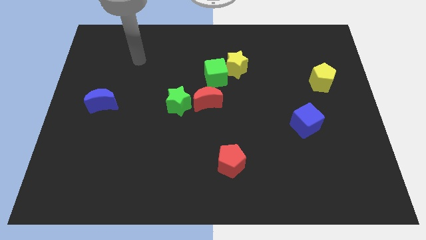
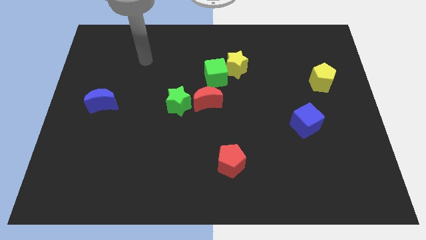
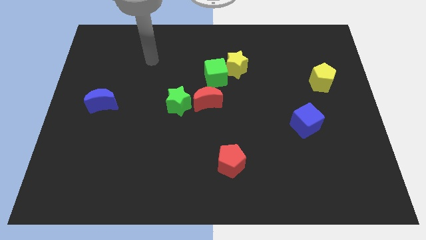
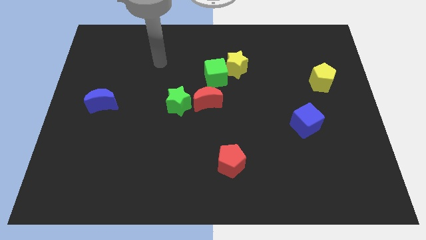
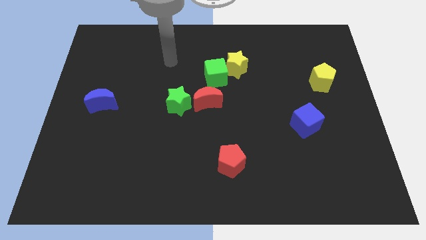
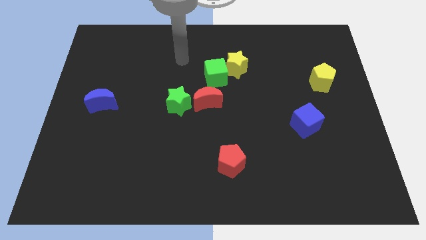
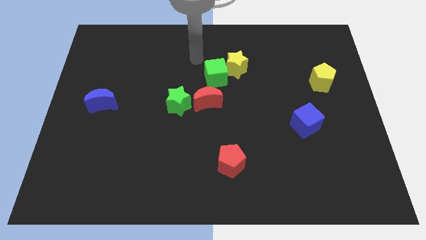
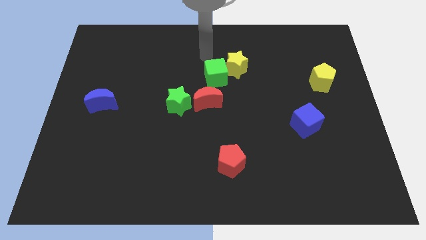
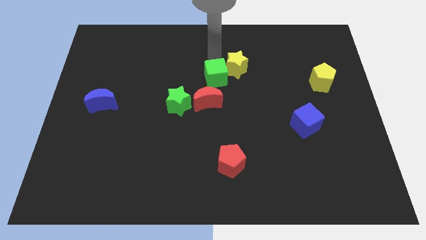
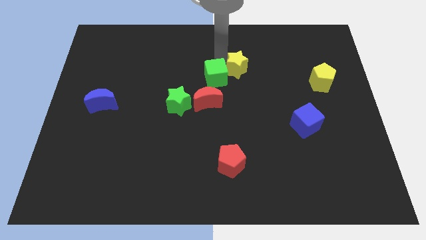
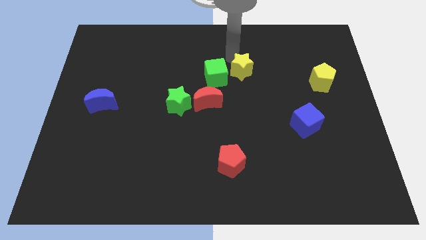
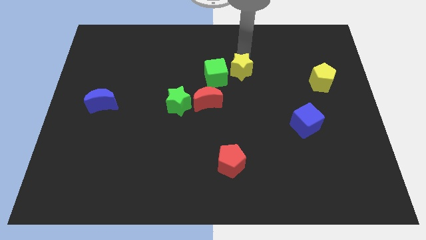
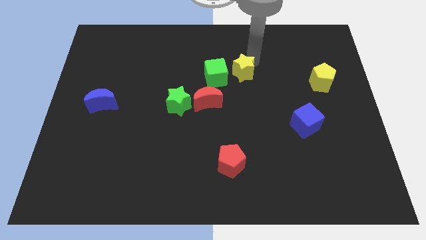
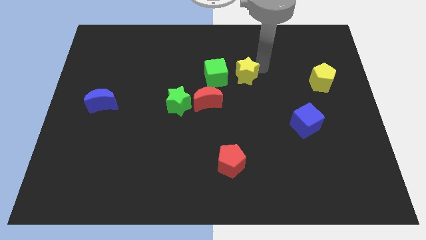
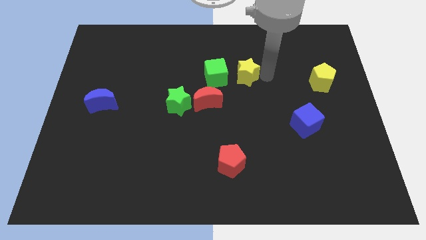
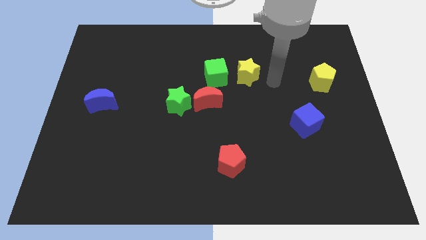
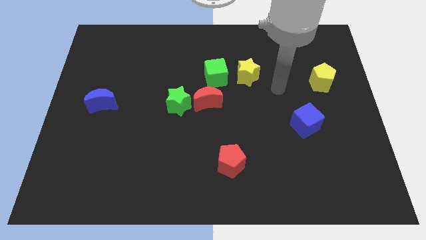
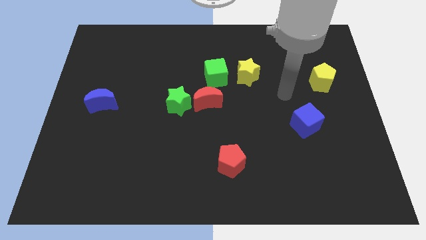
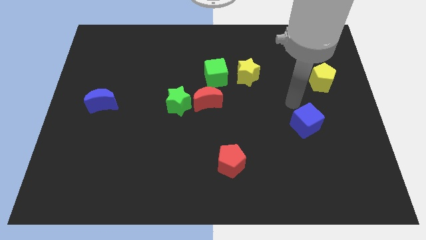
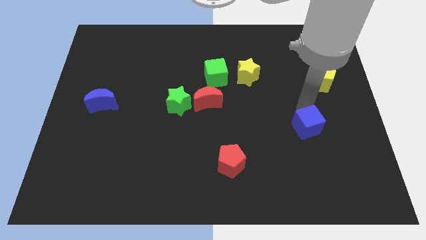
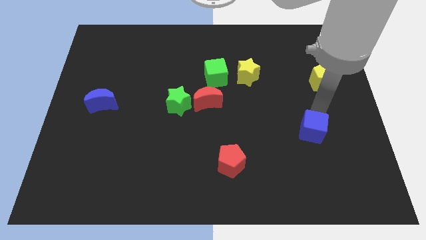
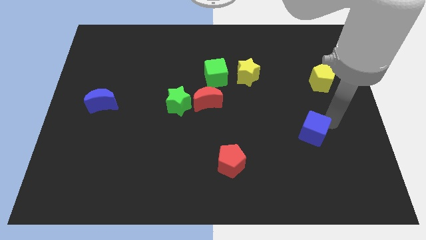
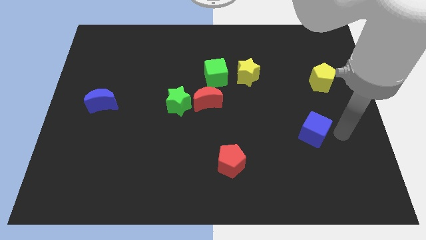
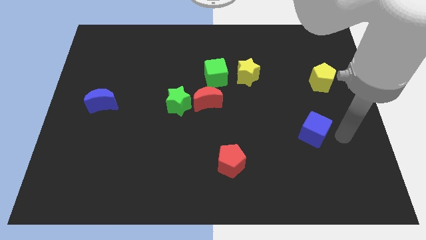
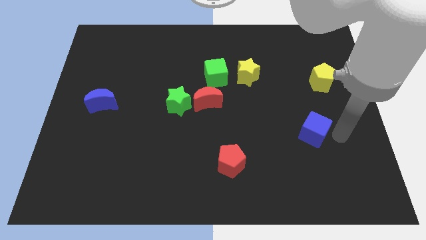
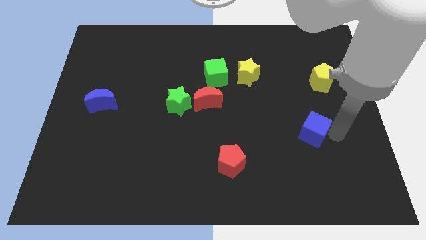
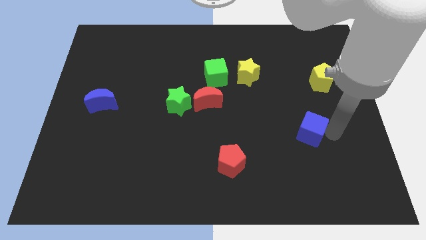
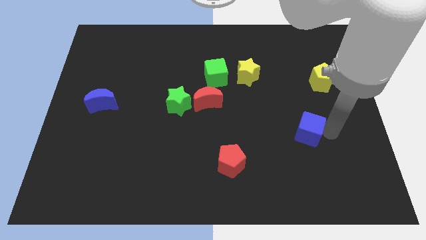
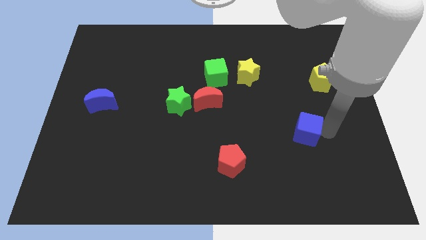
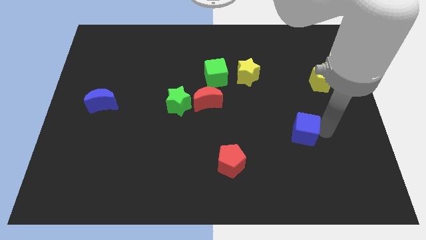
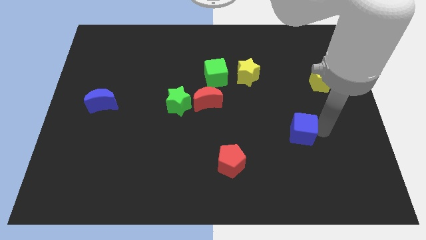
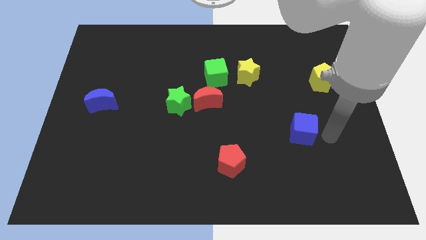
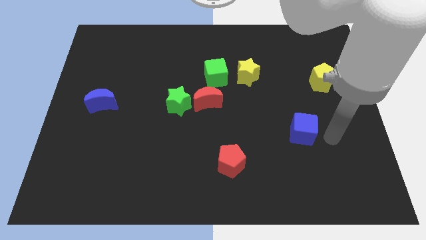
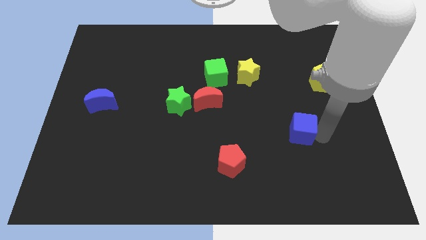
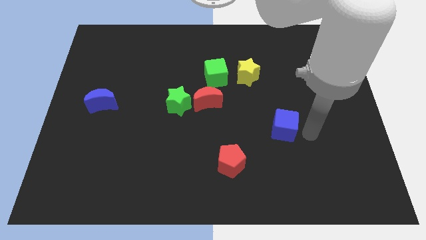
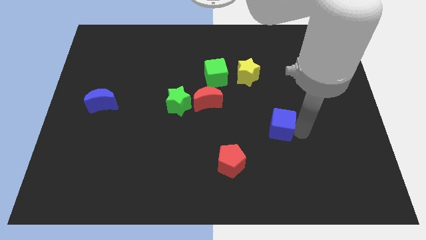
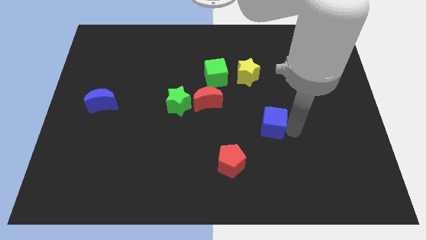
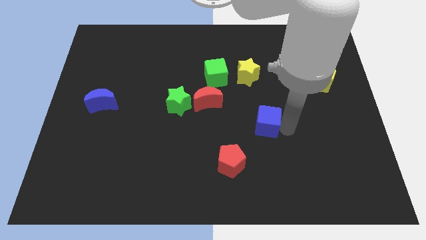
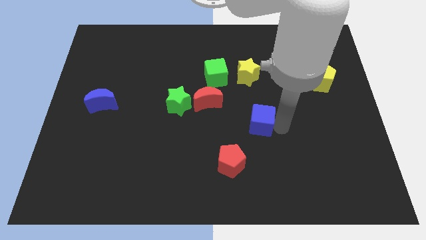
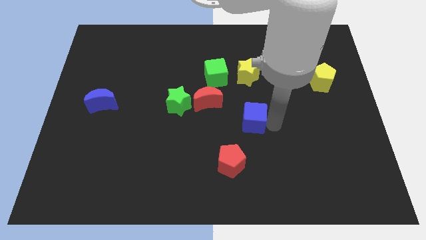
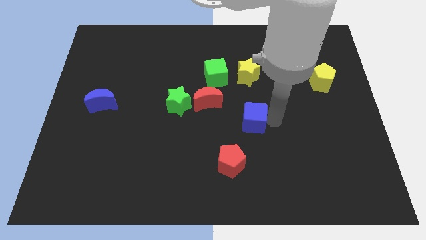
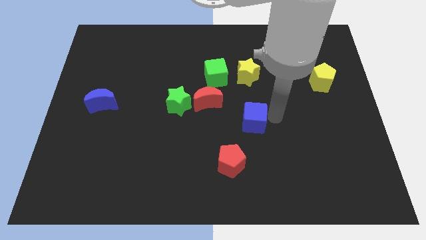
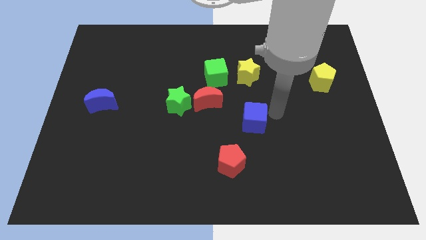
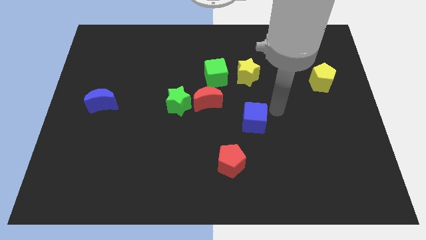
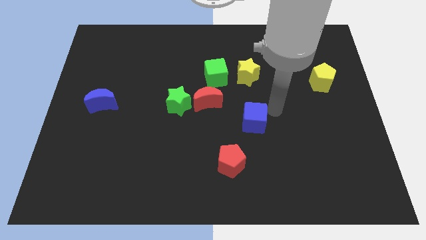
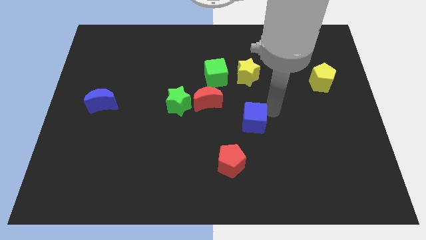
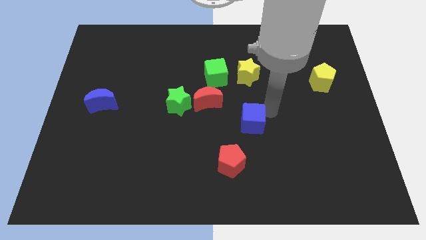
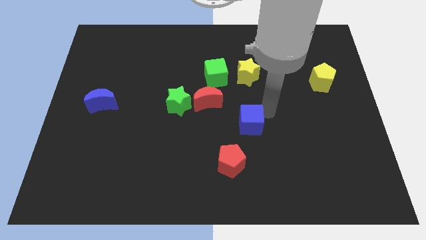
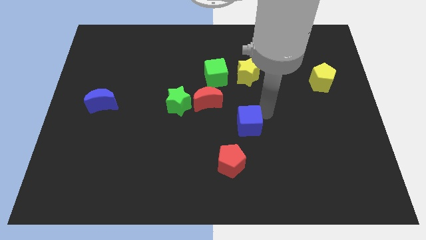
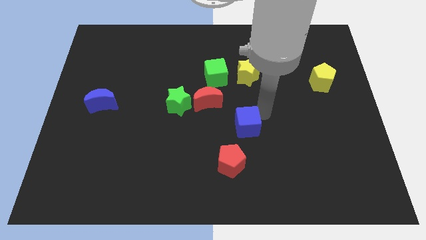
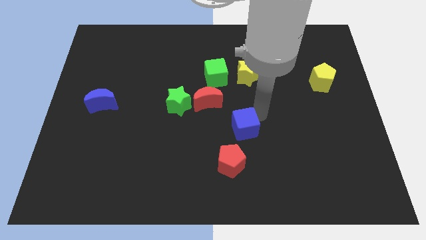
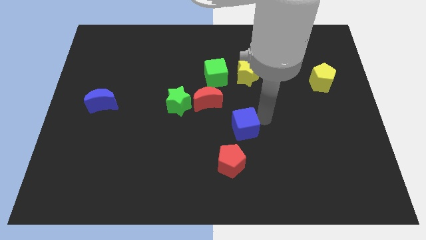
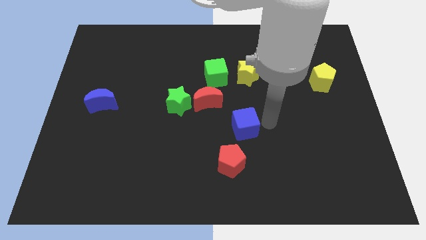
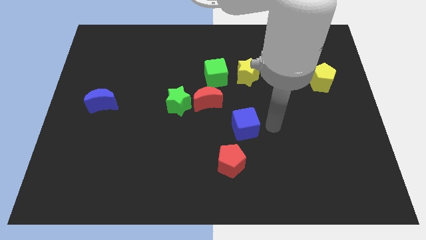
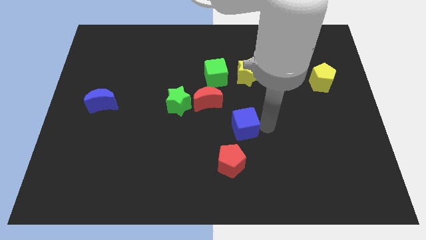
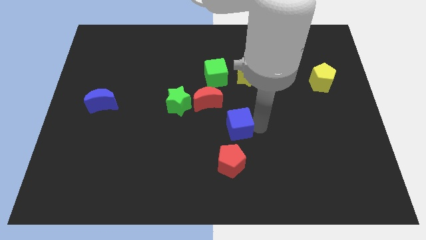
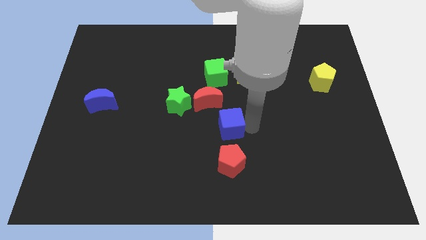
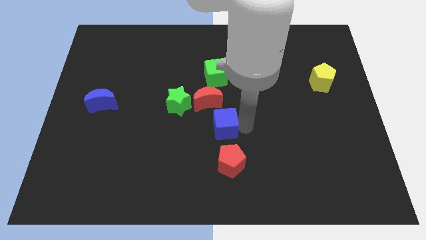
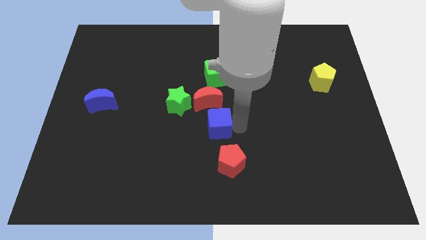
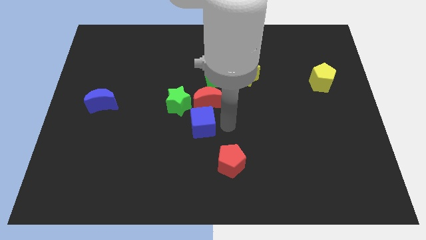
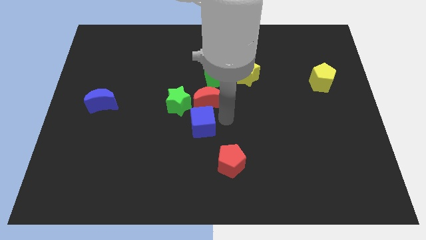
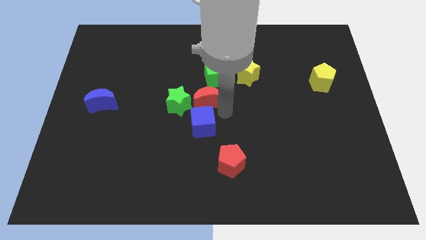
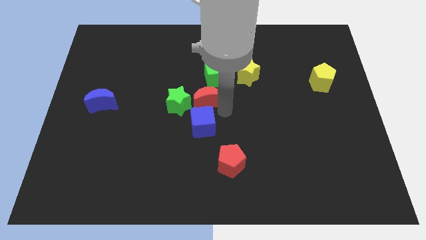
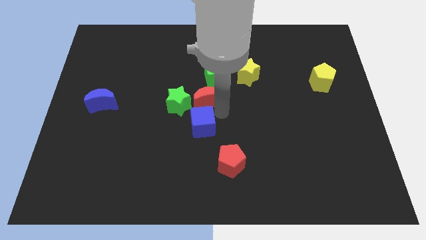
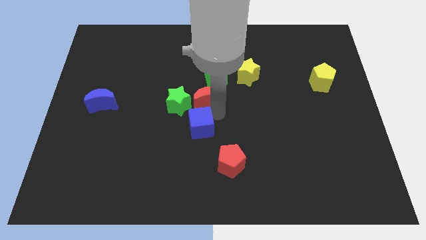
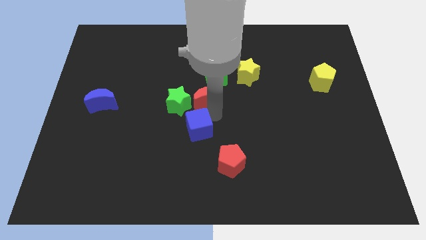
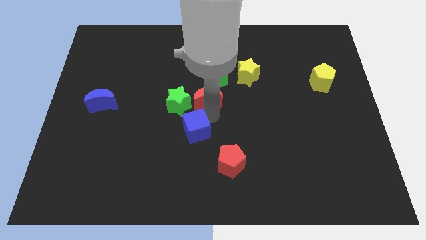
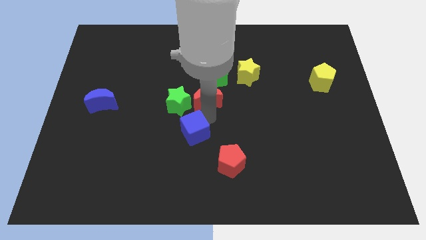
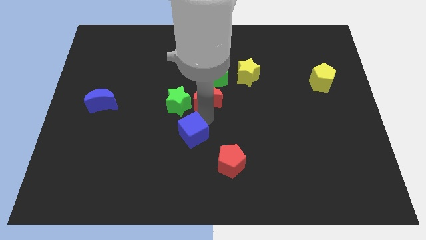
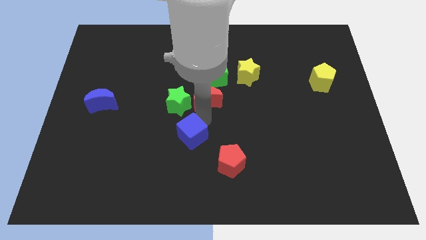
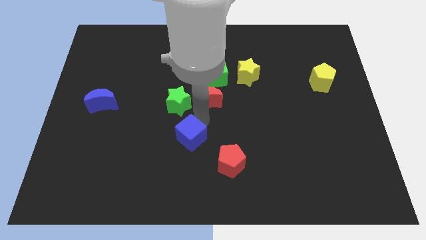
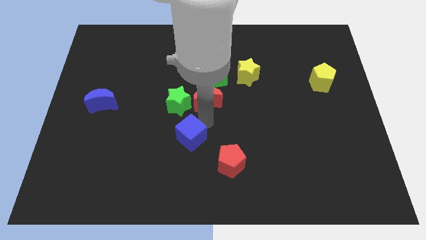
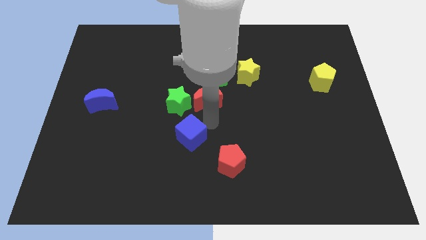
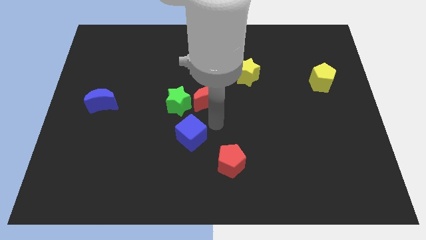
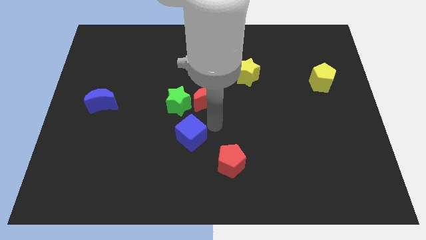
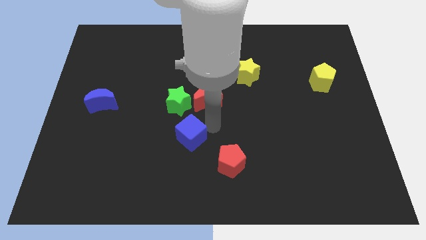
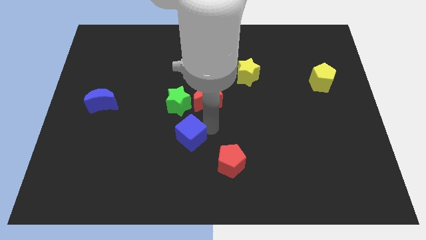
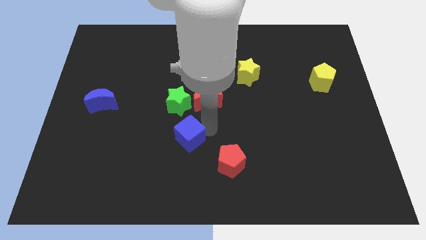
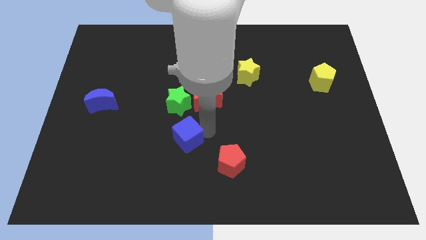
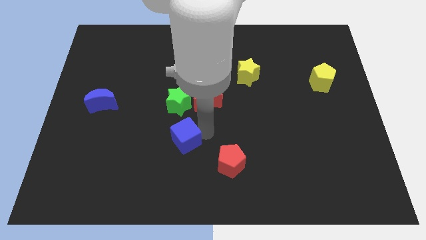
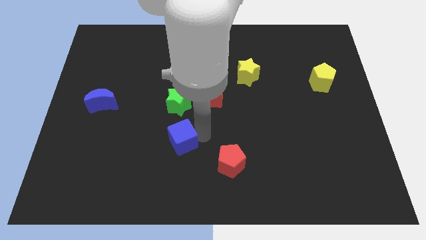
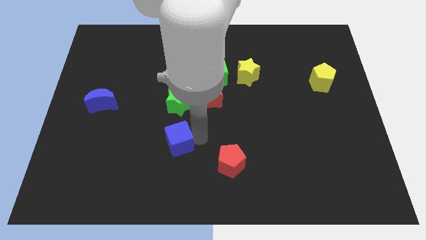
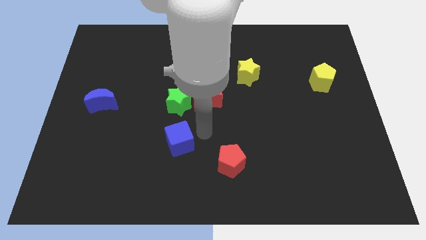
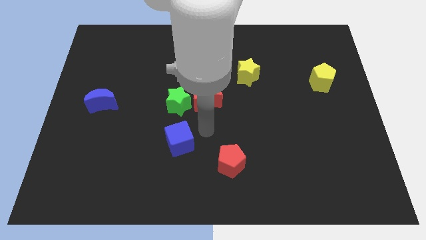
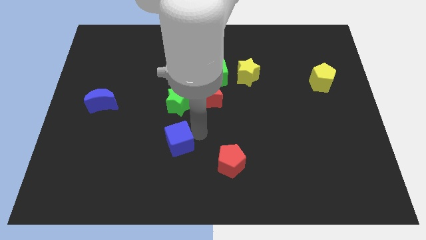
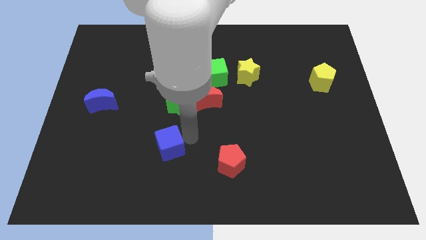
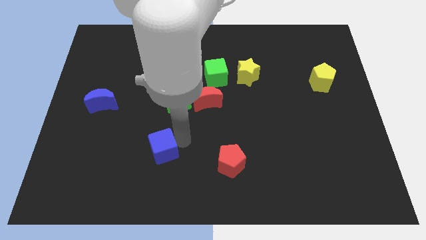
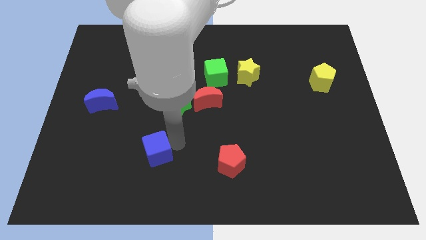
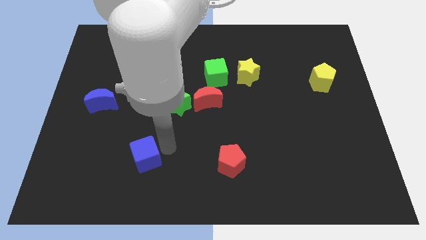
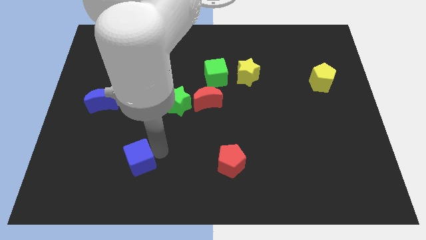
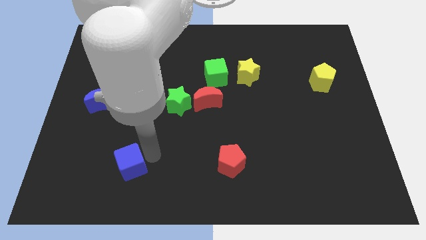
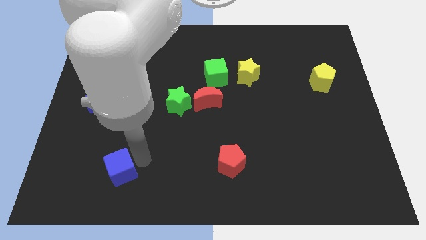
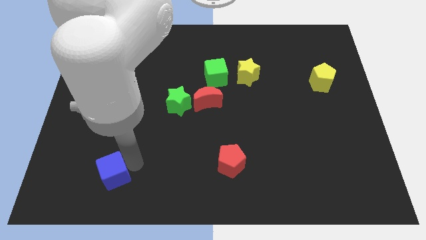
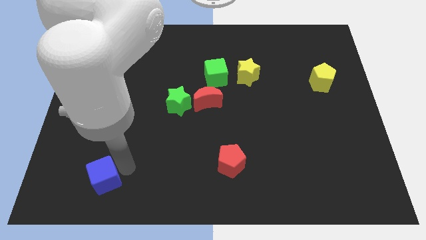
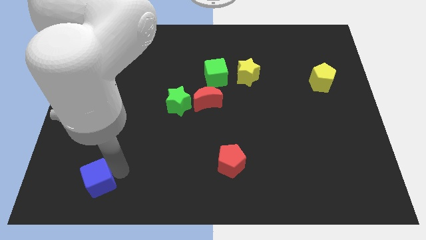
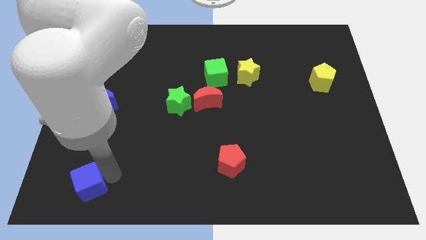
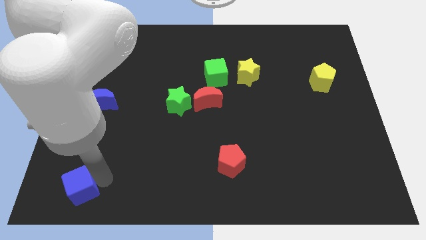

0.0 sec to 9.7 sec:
push the blue cube to the lower left corner
